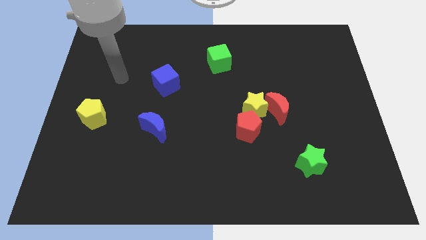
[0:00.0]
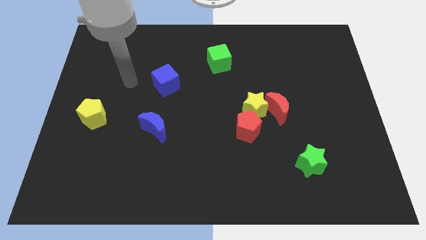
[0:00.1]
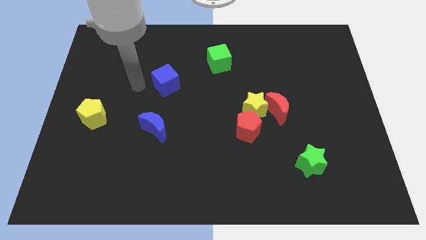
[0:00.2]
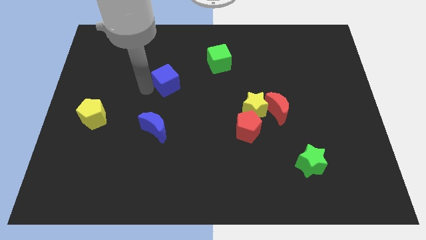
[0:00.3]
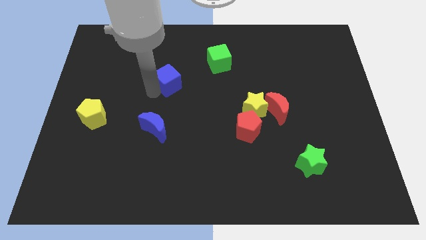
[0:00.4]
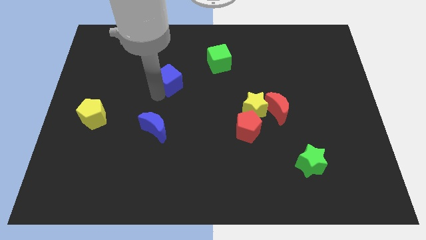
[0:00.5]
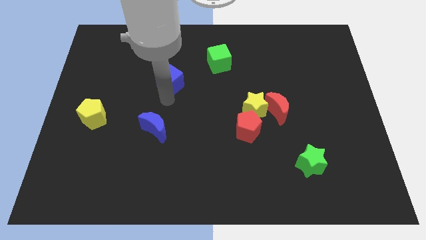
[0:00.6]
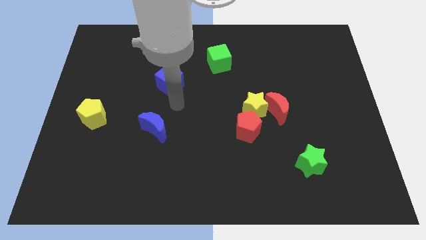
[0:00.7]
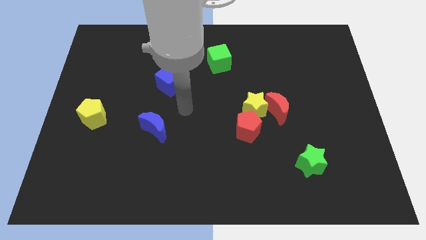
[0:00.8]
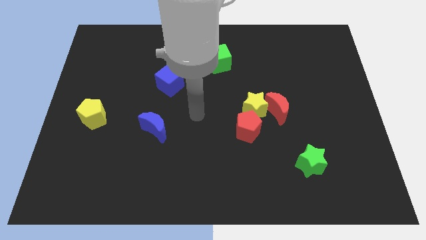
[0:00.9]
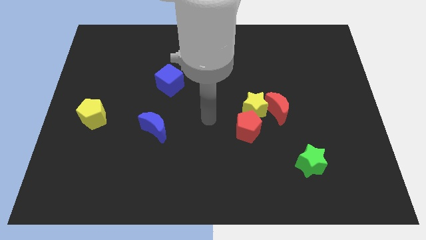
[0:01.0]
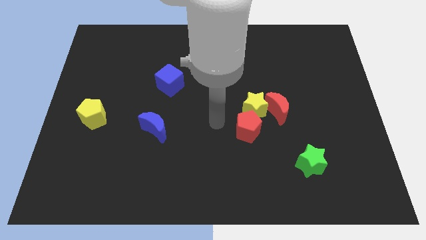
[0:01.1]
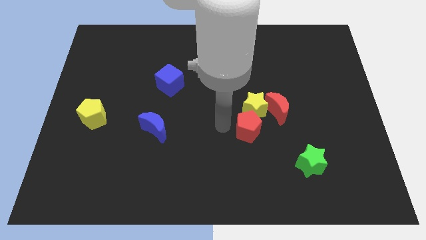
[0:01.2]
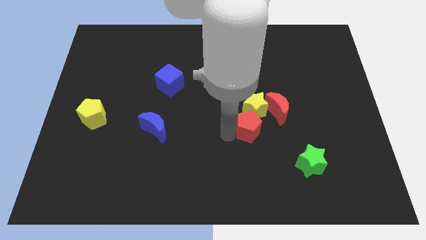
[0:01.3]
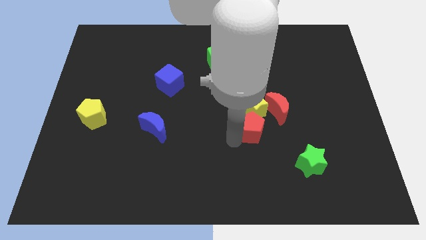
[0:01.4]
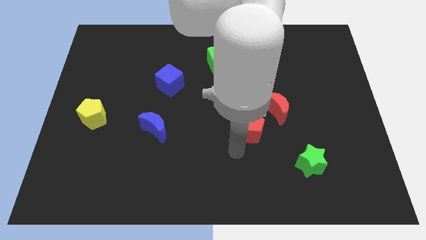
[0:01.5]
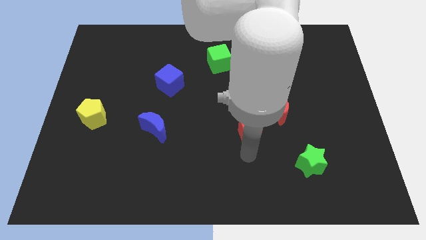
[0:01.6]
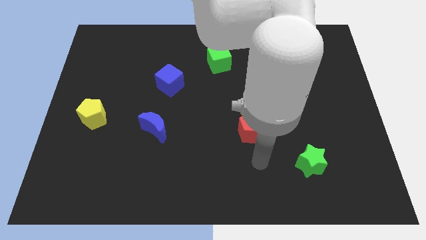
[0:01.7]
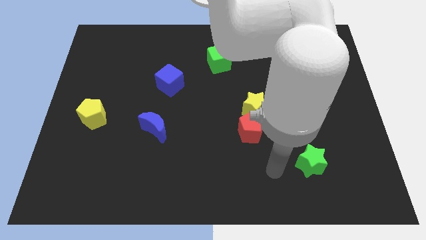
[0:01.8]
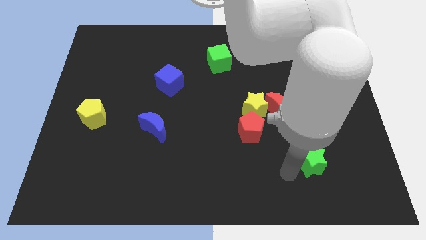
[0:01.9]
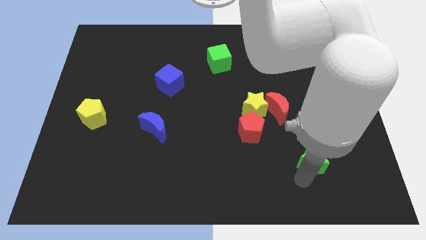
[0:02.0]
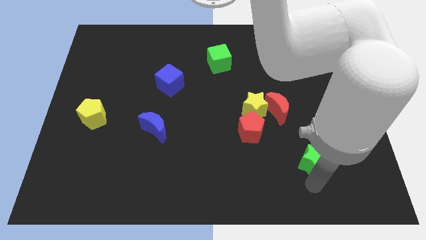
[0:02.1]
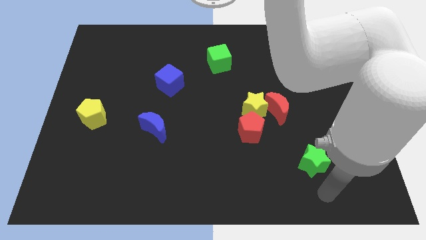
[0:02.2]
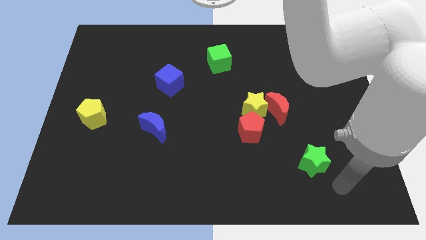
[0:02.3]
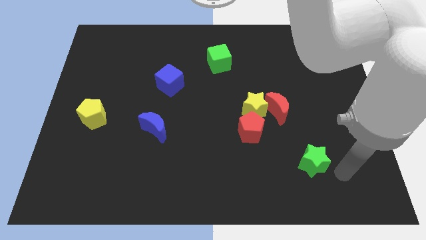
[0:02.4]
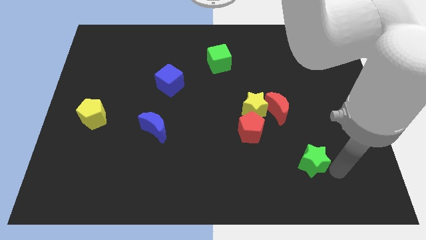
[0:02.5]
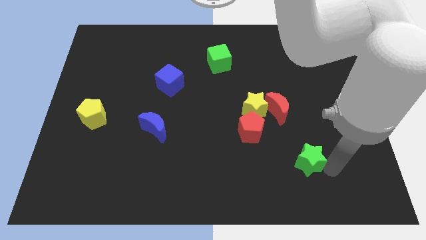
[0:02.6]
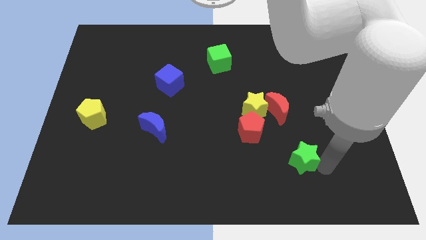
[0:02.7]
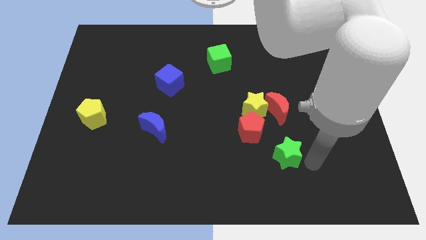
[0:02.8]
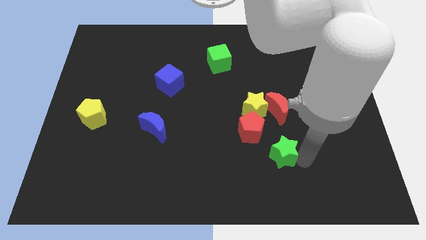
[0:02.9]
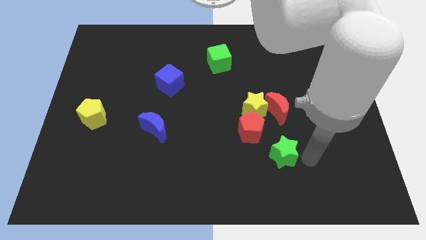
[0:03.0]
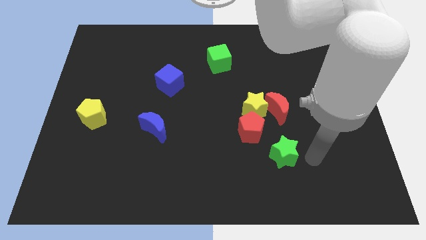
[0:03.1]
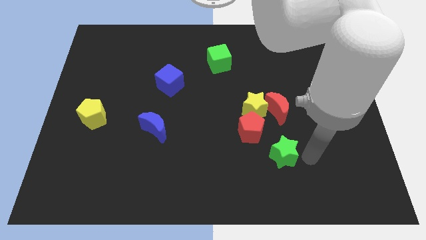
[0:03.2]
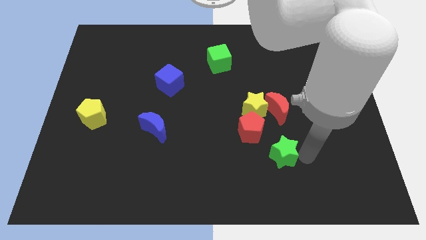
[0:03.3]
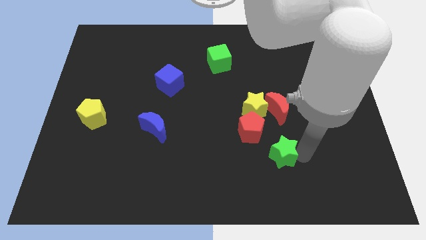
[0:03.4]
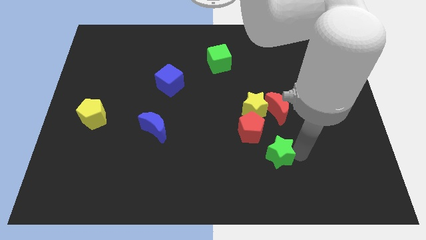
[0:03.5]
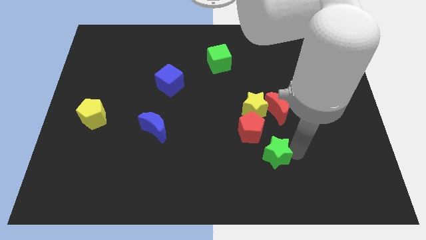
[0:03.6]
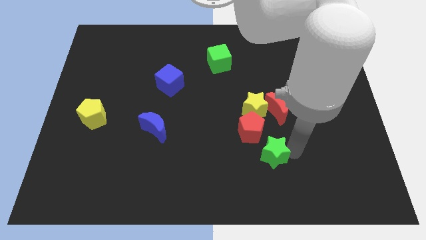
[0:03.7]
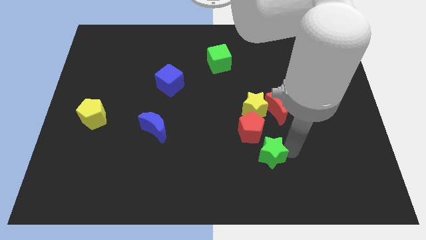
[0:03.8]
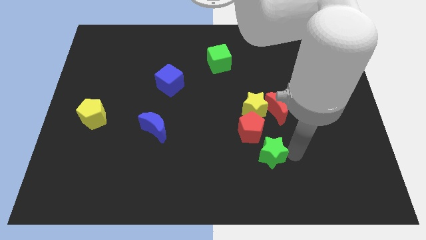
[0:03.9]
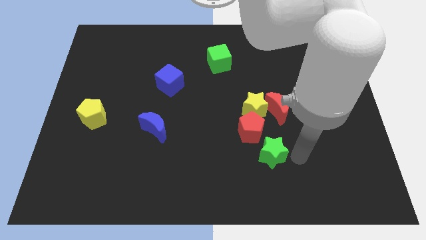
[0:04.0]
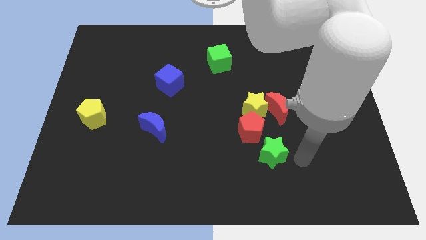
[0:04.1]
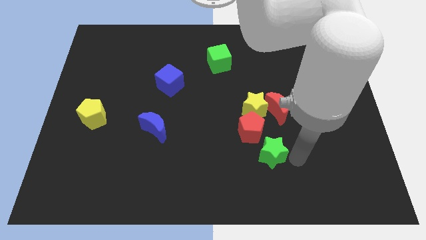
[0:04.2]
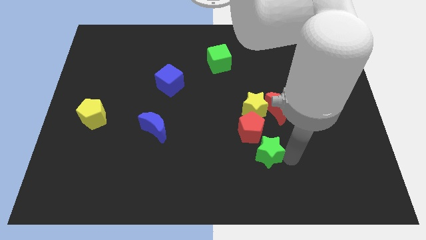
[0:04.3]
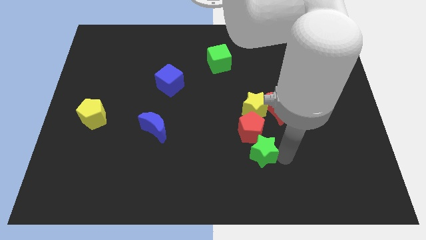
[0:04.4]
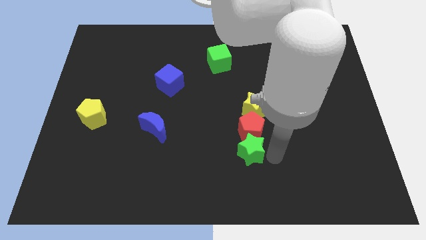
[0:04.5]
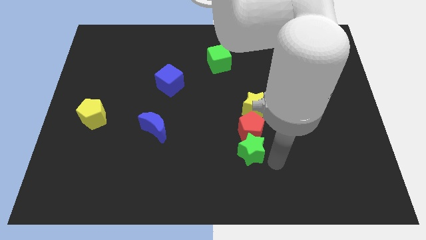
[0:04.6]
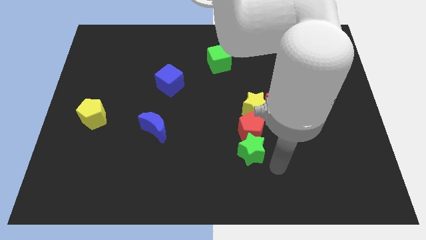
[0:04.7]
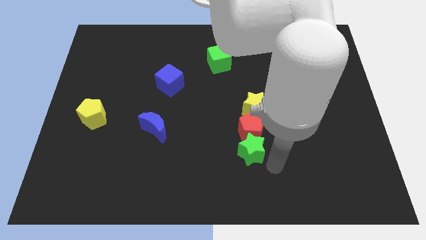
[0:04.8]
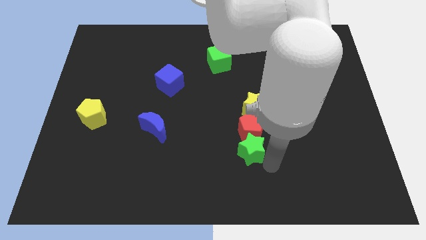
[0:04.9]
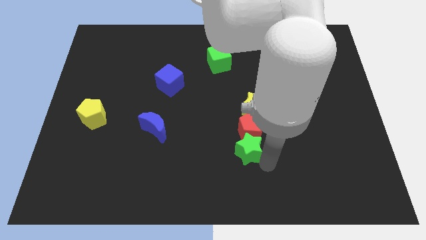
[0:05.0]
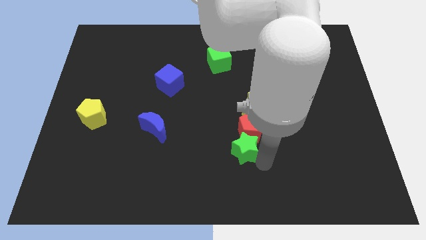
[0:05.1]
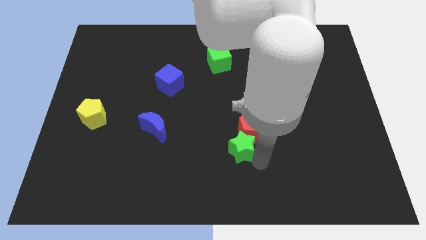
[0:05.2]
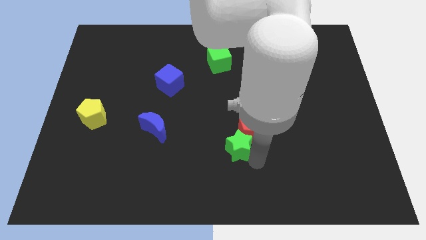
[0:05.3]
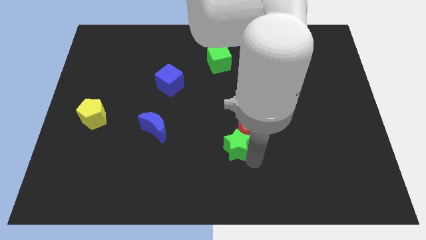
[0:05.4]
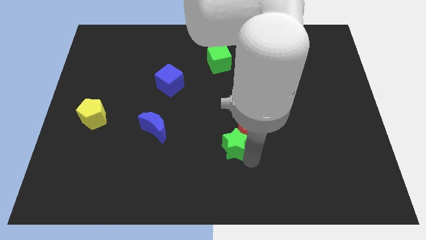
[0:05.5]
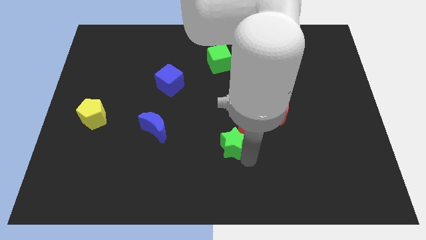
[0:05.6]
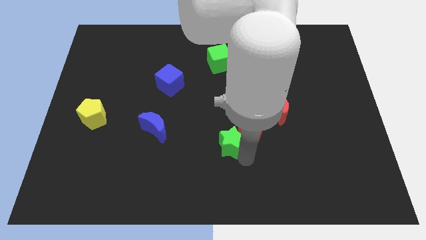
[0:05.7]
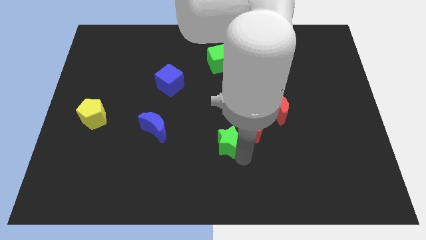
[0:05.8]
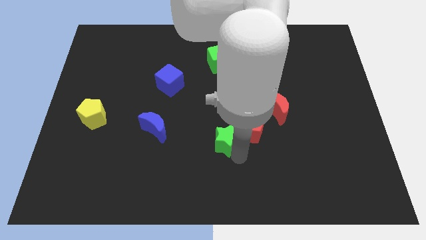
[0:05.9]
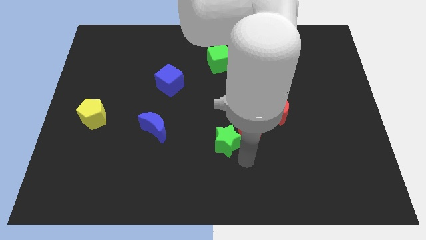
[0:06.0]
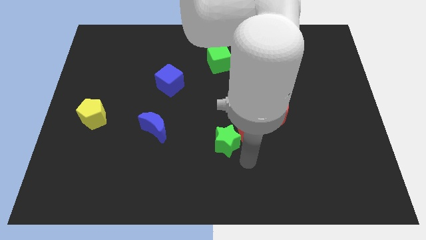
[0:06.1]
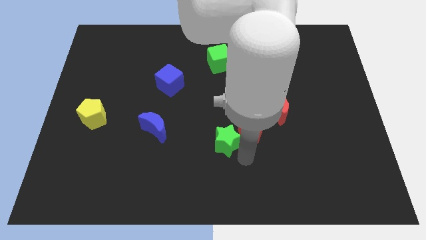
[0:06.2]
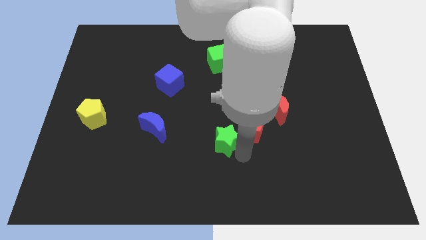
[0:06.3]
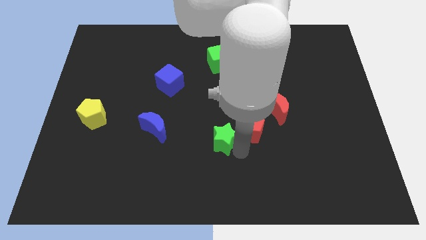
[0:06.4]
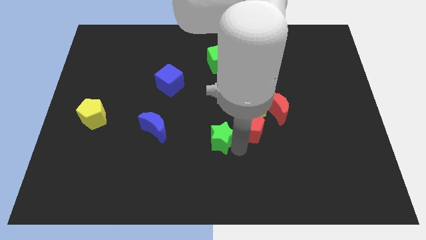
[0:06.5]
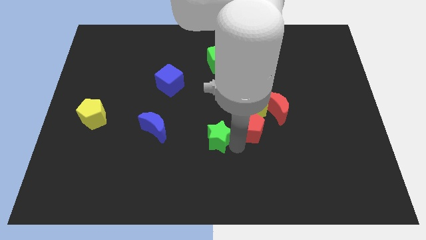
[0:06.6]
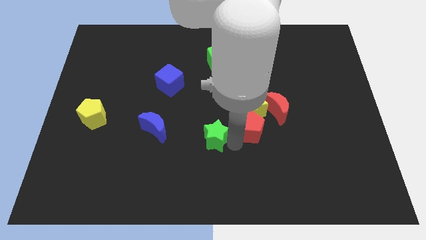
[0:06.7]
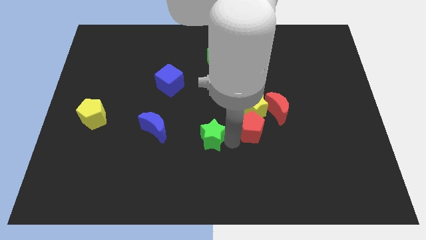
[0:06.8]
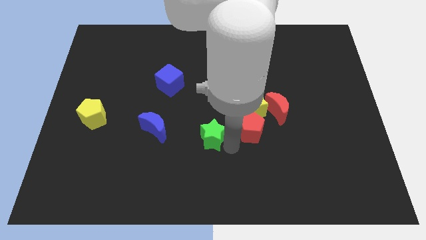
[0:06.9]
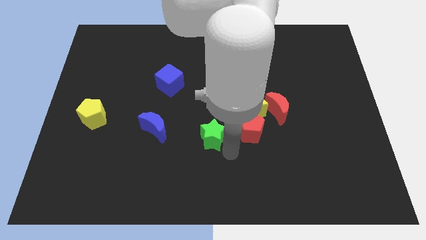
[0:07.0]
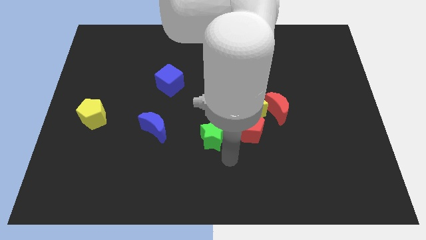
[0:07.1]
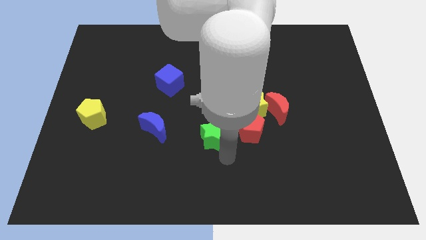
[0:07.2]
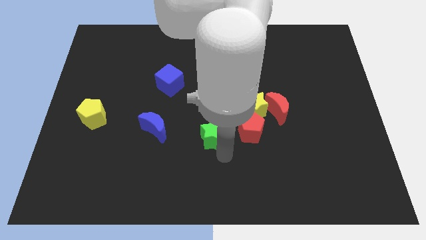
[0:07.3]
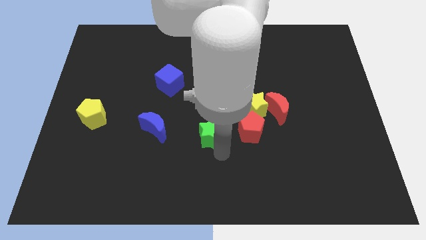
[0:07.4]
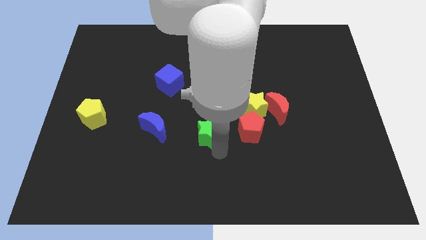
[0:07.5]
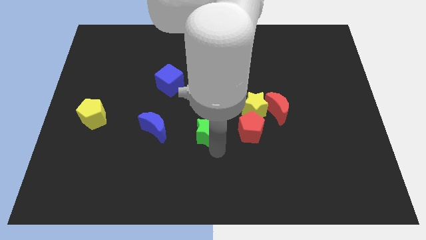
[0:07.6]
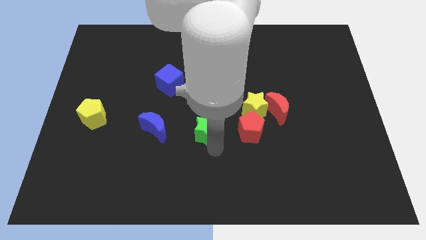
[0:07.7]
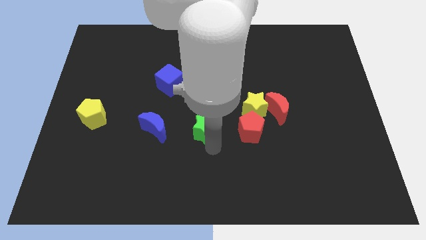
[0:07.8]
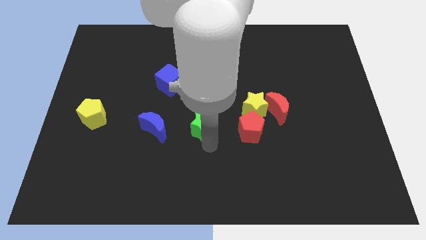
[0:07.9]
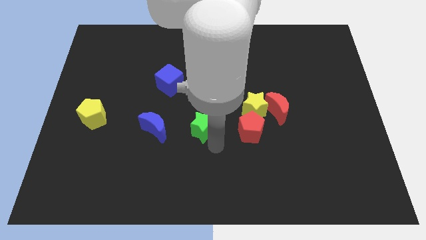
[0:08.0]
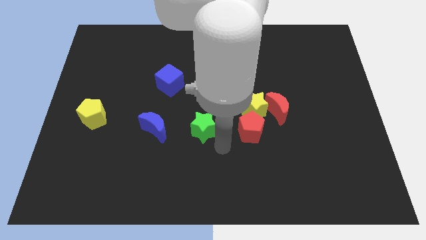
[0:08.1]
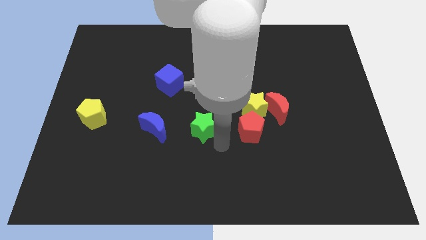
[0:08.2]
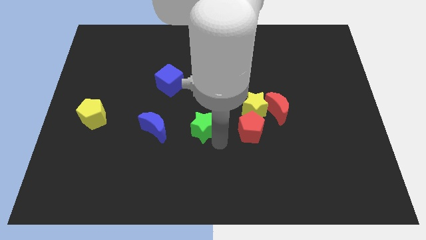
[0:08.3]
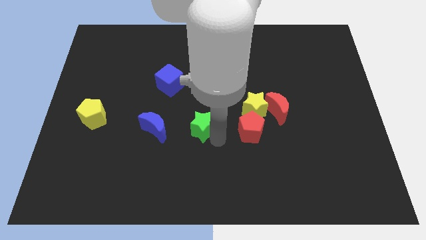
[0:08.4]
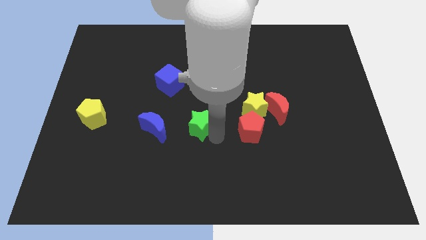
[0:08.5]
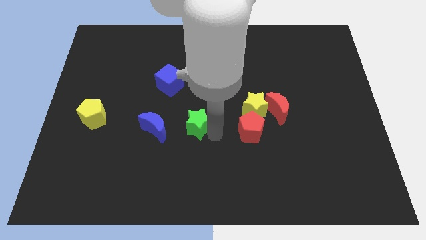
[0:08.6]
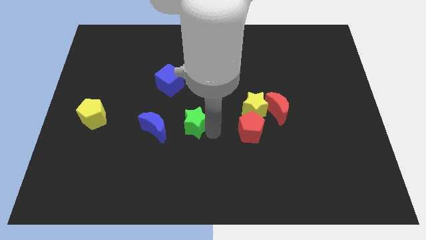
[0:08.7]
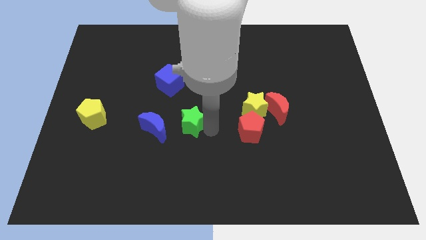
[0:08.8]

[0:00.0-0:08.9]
move the green star to the top right of the blue moon
